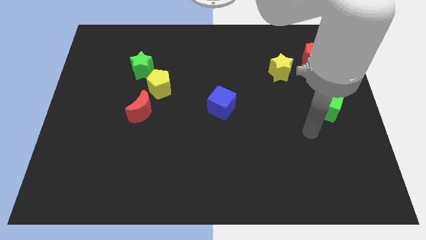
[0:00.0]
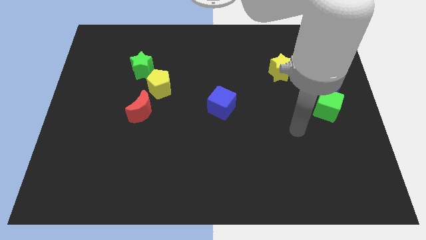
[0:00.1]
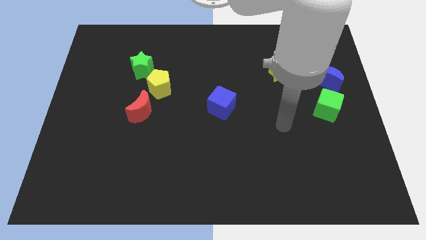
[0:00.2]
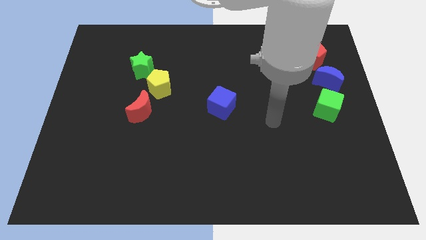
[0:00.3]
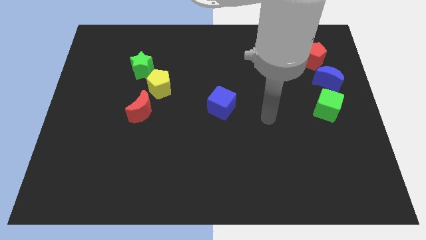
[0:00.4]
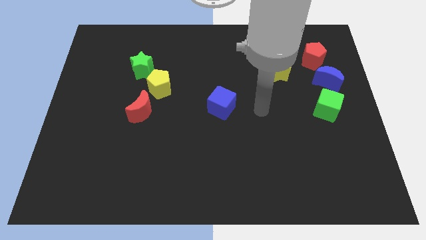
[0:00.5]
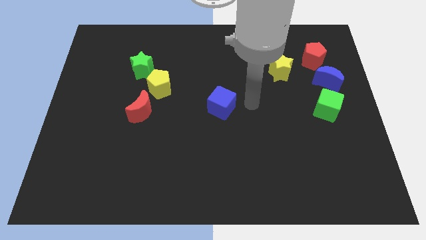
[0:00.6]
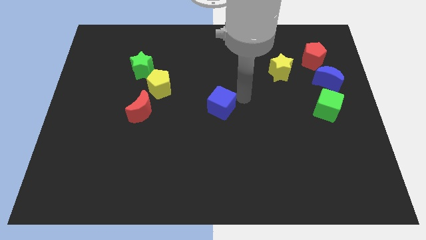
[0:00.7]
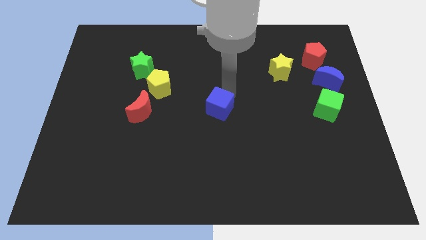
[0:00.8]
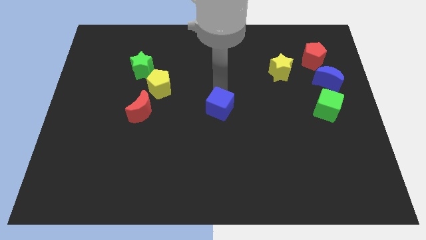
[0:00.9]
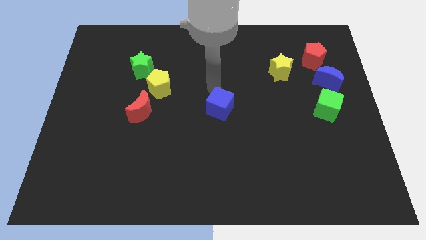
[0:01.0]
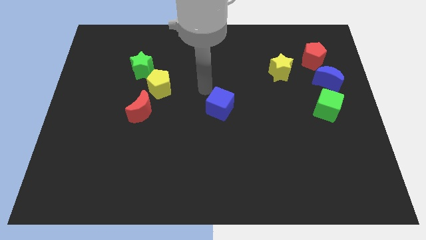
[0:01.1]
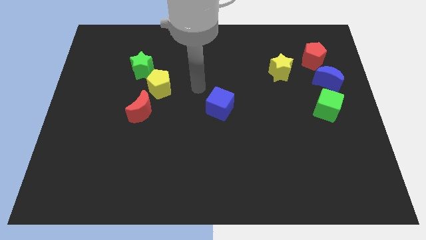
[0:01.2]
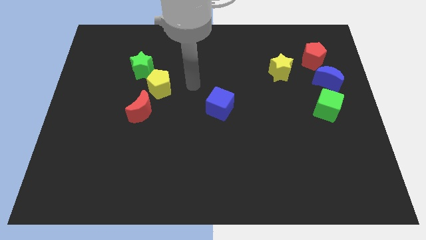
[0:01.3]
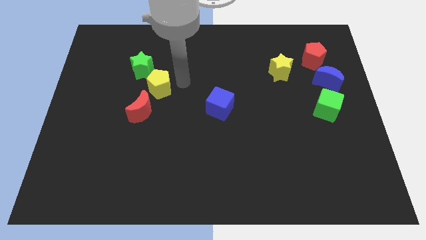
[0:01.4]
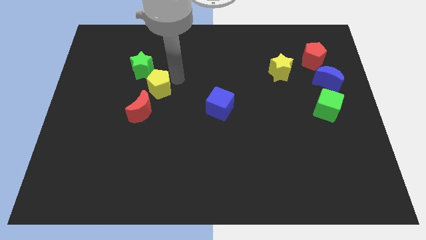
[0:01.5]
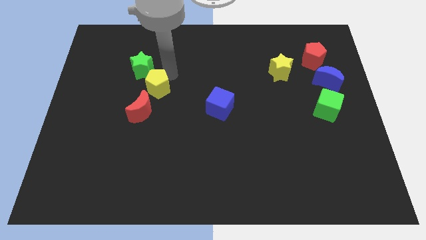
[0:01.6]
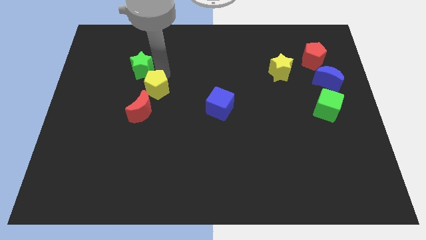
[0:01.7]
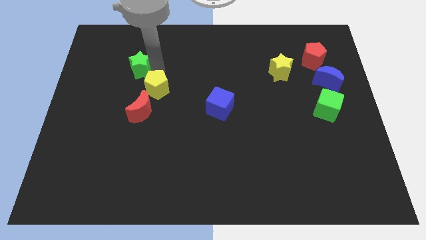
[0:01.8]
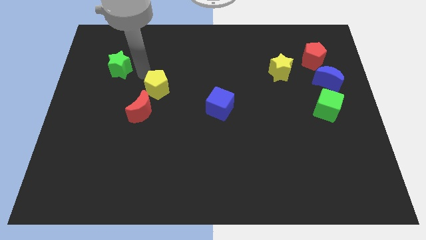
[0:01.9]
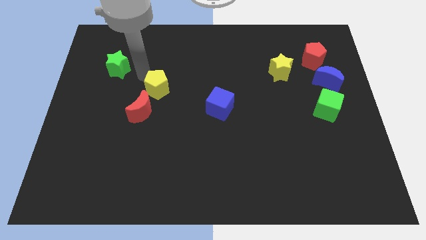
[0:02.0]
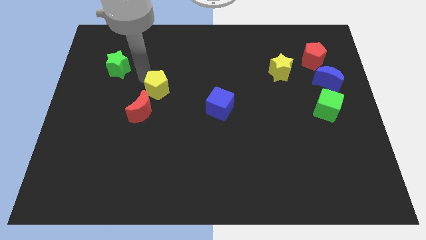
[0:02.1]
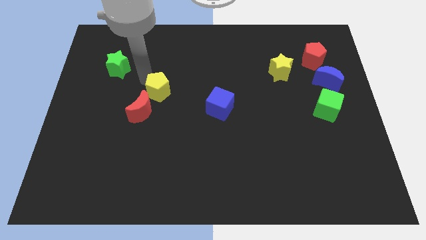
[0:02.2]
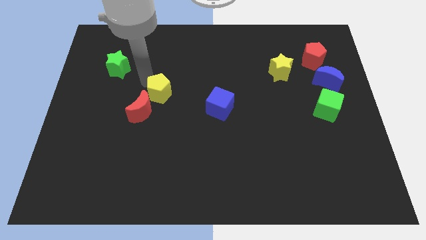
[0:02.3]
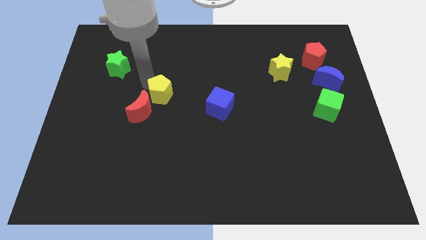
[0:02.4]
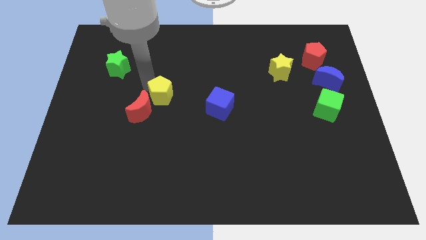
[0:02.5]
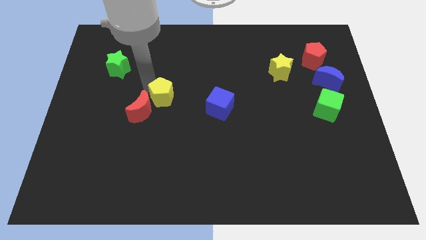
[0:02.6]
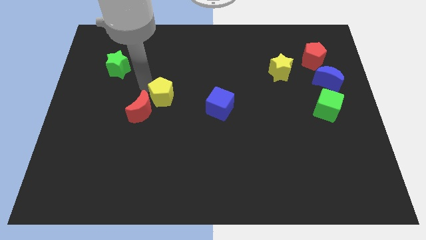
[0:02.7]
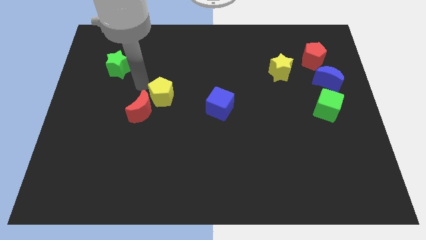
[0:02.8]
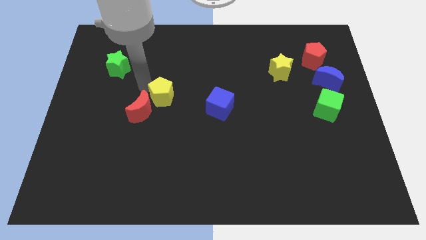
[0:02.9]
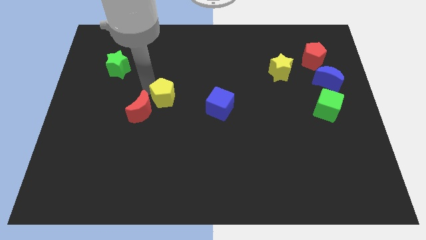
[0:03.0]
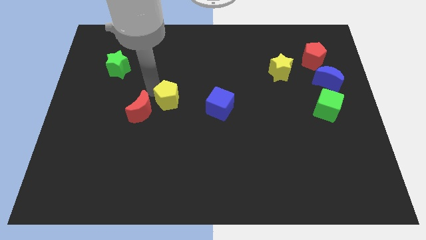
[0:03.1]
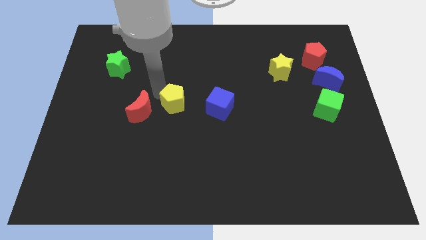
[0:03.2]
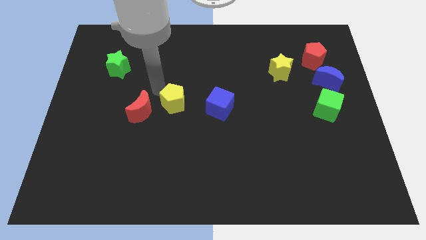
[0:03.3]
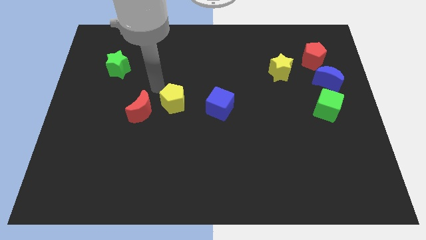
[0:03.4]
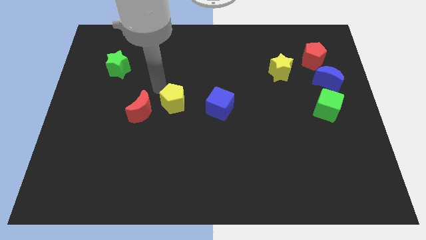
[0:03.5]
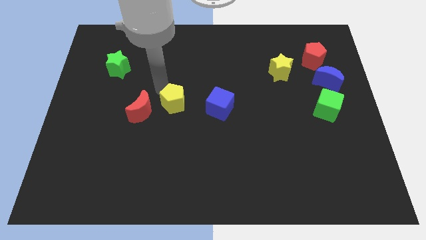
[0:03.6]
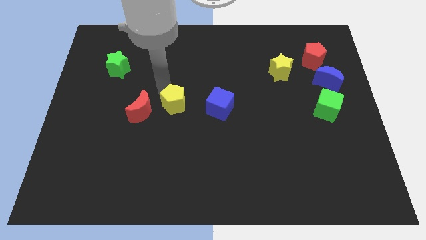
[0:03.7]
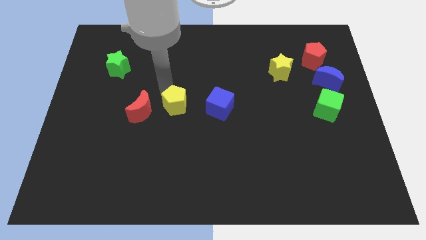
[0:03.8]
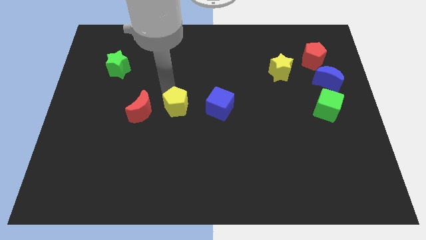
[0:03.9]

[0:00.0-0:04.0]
slightly slide the yellow pentagon down and right diagonally

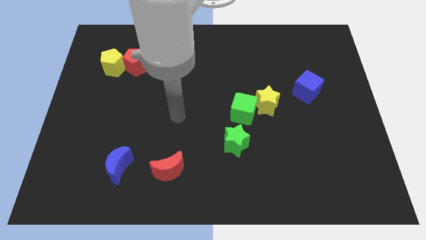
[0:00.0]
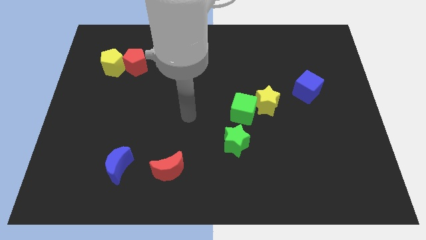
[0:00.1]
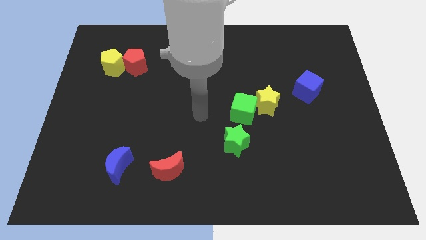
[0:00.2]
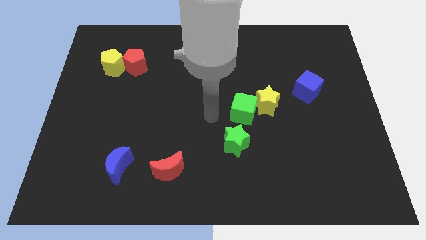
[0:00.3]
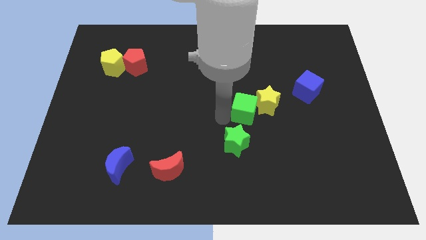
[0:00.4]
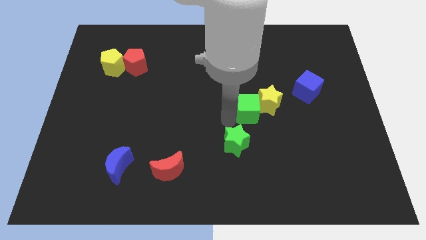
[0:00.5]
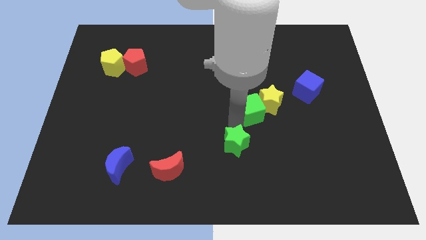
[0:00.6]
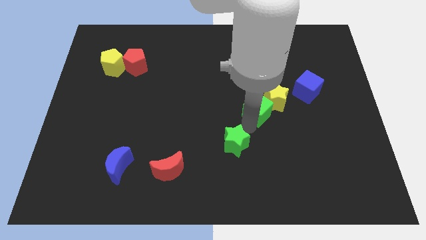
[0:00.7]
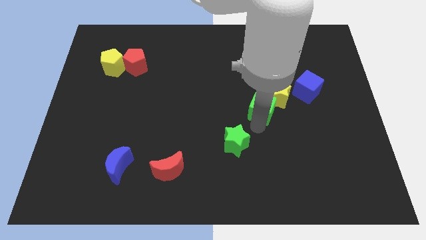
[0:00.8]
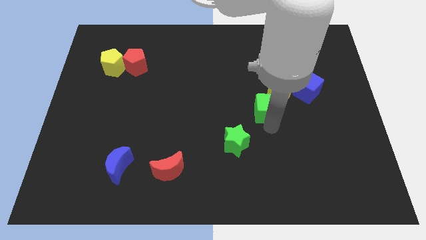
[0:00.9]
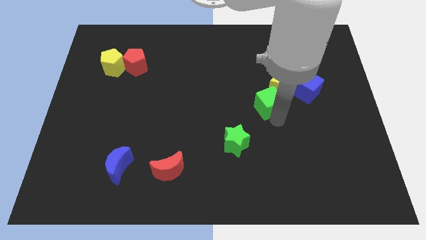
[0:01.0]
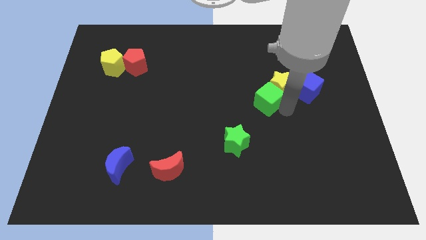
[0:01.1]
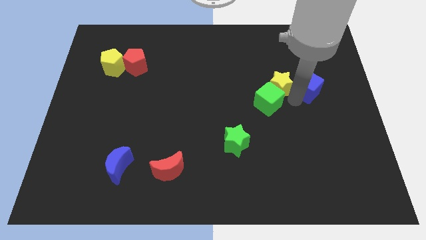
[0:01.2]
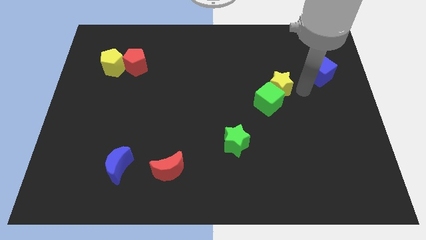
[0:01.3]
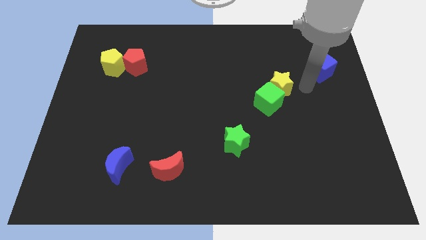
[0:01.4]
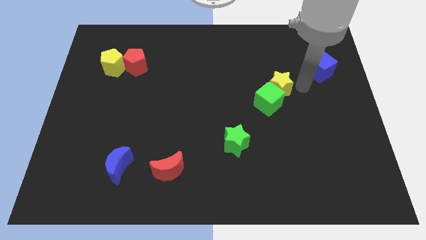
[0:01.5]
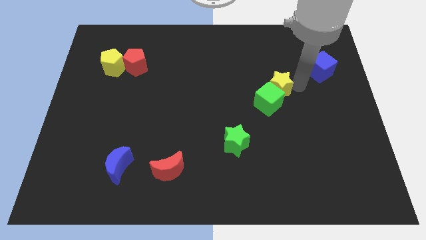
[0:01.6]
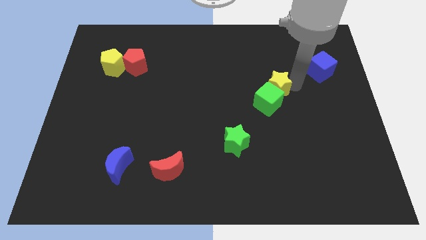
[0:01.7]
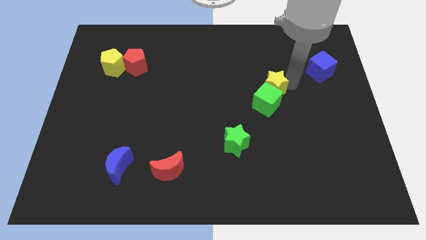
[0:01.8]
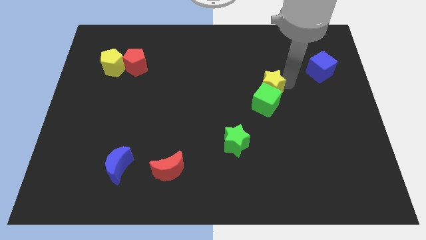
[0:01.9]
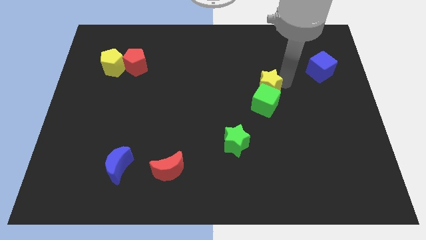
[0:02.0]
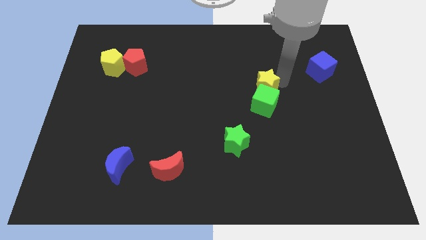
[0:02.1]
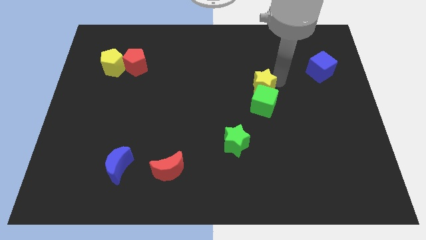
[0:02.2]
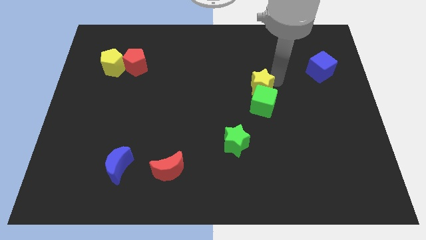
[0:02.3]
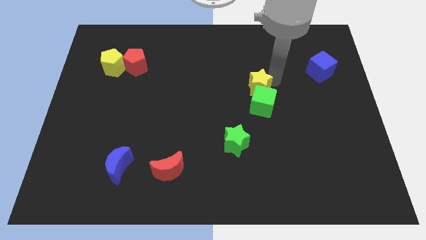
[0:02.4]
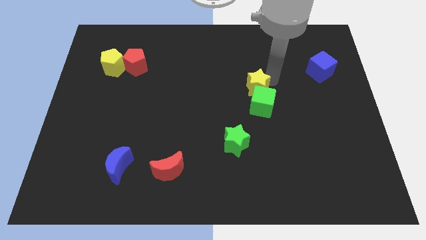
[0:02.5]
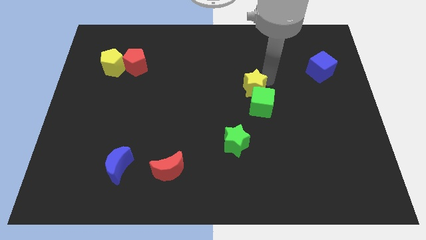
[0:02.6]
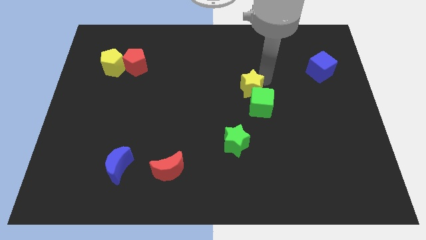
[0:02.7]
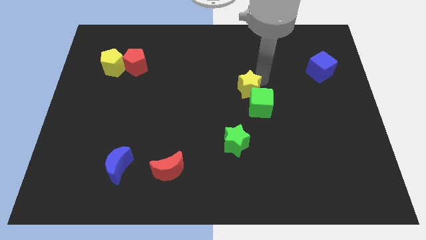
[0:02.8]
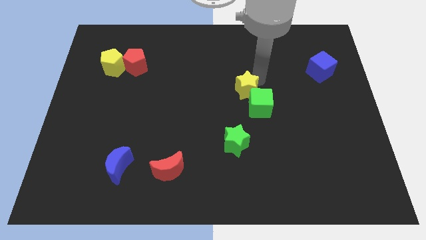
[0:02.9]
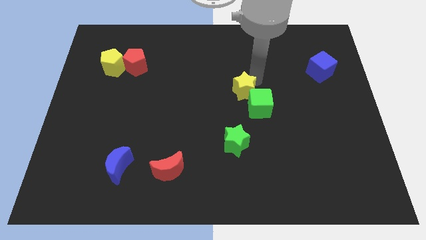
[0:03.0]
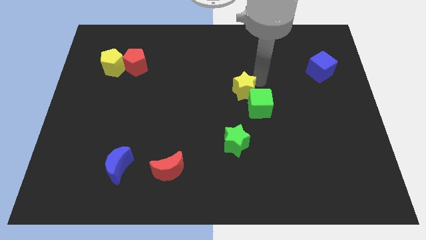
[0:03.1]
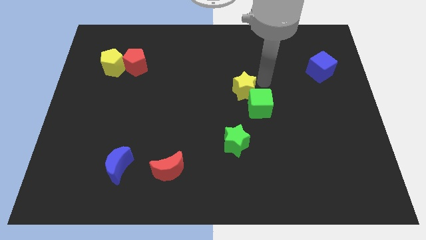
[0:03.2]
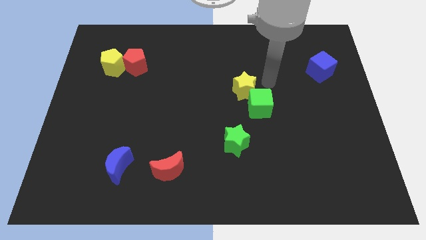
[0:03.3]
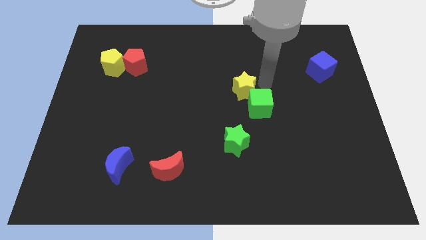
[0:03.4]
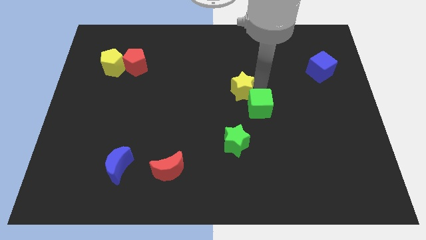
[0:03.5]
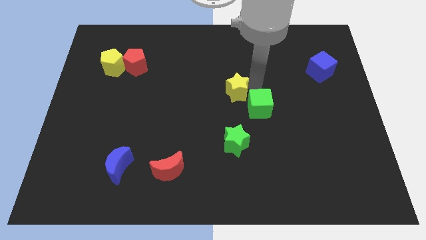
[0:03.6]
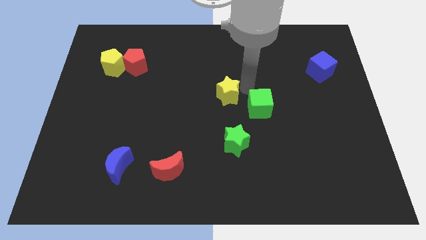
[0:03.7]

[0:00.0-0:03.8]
move the yellow star slightly to the left

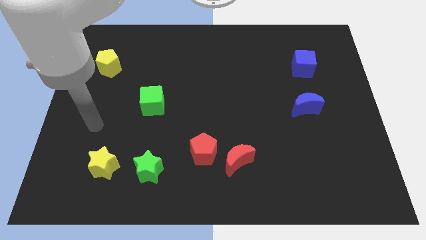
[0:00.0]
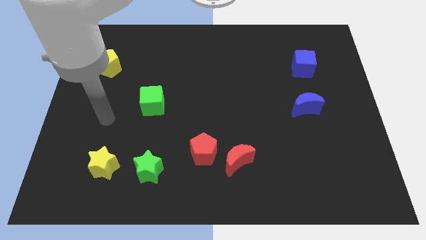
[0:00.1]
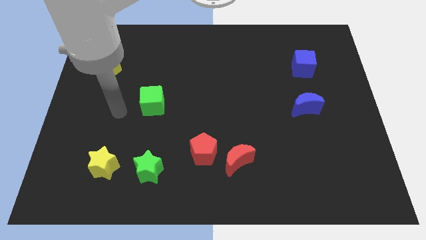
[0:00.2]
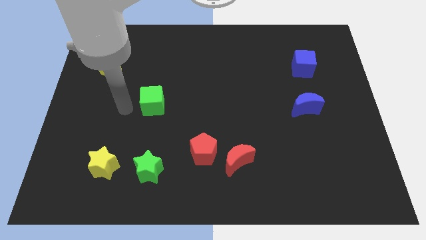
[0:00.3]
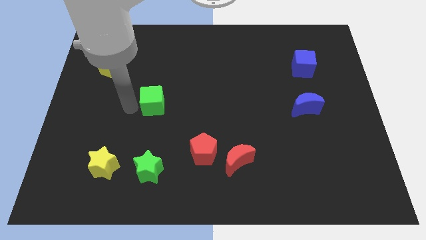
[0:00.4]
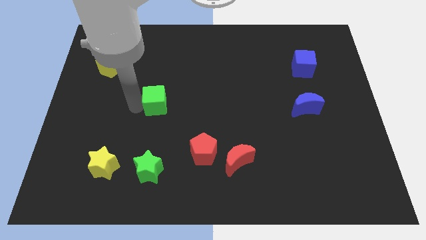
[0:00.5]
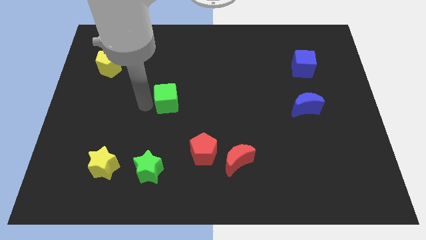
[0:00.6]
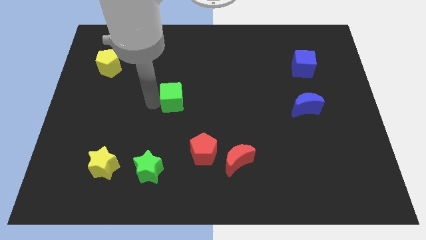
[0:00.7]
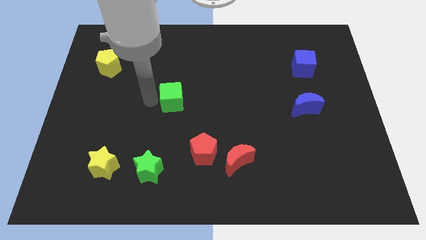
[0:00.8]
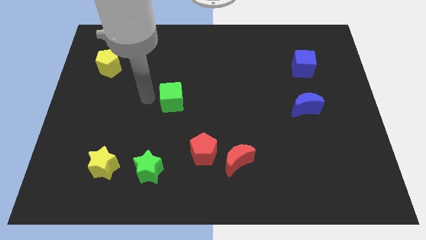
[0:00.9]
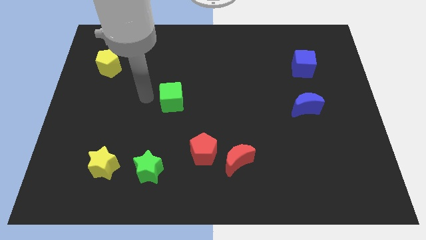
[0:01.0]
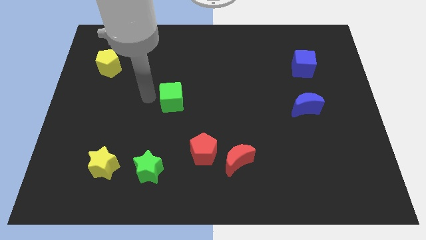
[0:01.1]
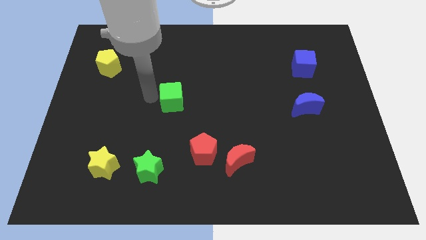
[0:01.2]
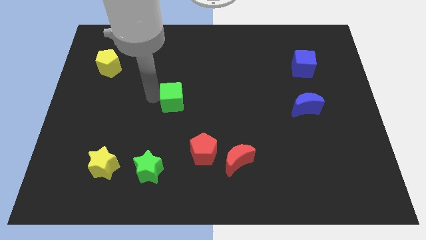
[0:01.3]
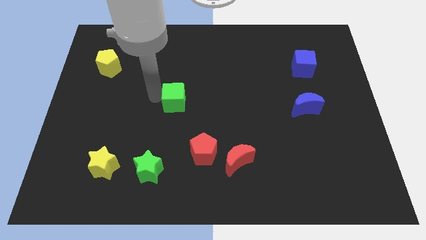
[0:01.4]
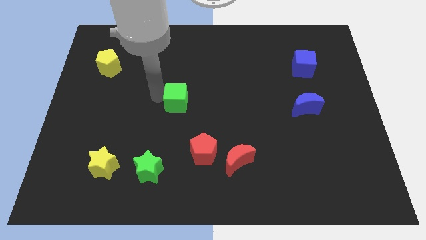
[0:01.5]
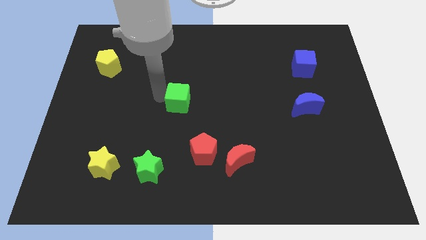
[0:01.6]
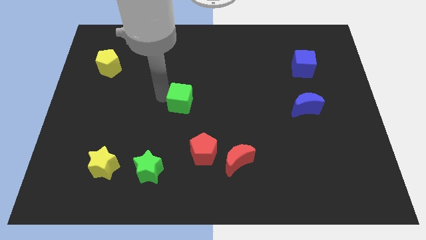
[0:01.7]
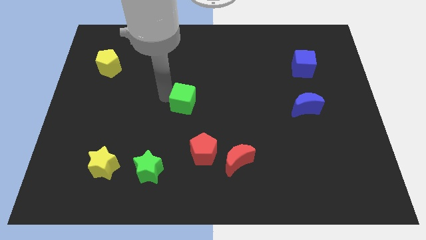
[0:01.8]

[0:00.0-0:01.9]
slightly move the green cube right
